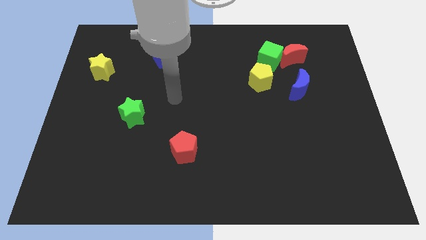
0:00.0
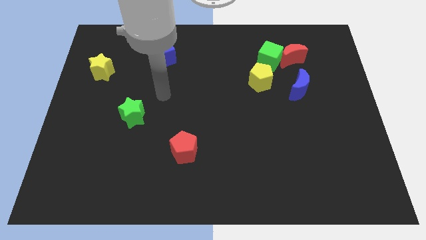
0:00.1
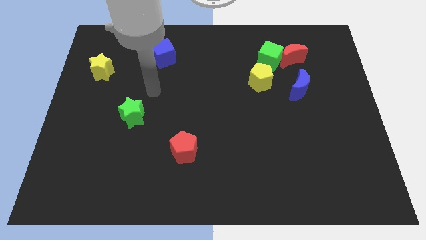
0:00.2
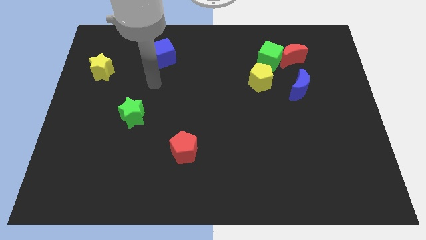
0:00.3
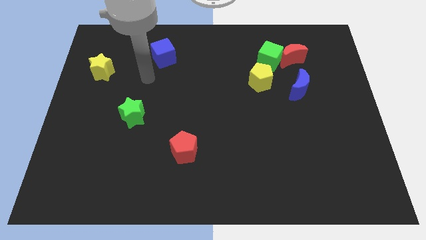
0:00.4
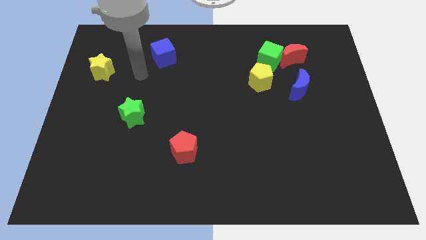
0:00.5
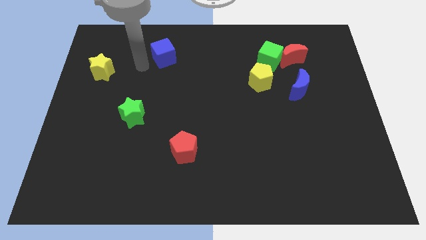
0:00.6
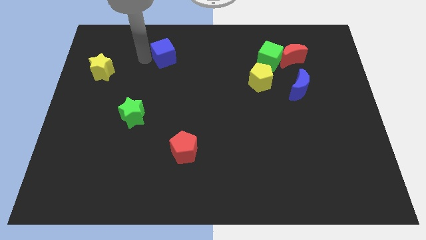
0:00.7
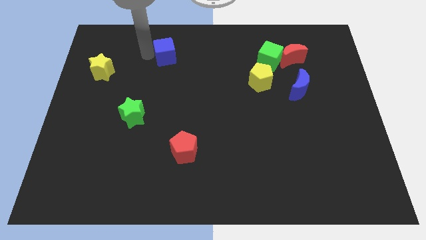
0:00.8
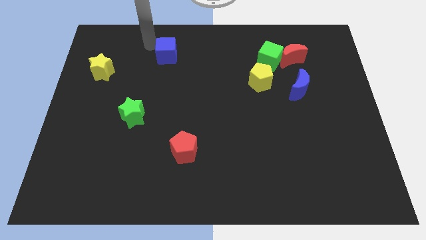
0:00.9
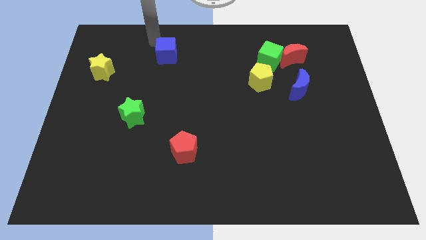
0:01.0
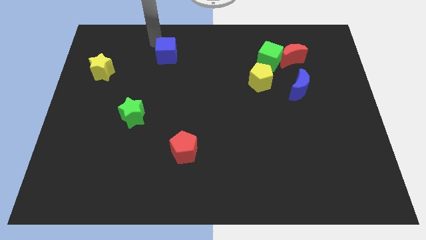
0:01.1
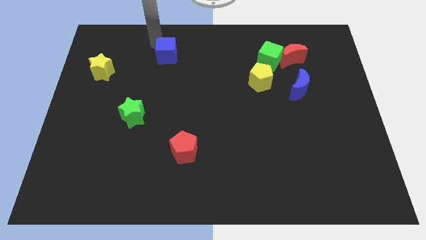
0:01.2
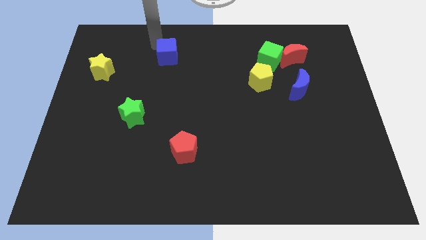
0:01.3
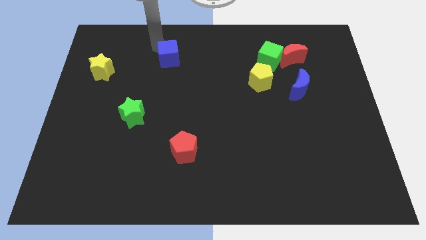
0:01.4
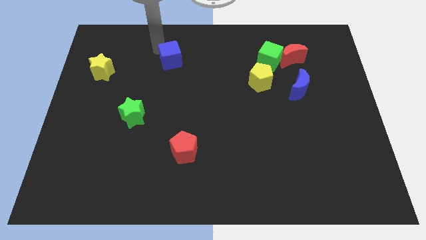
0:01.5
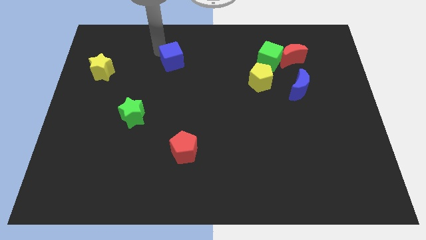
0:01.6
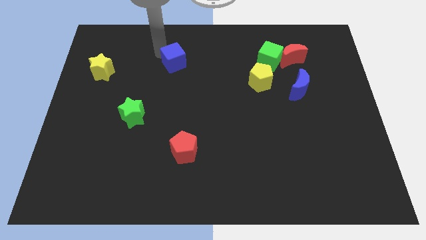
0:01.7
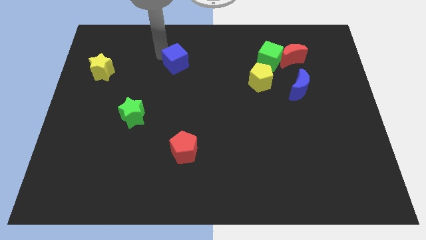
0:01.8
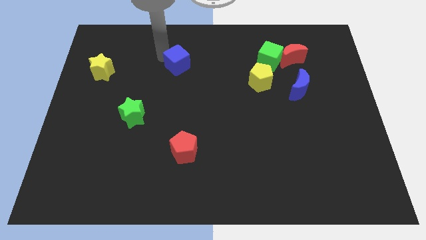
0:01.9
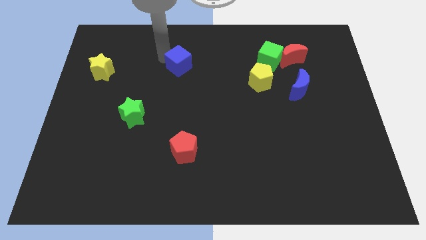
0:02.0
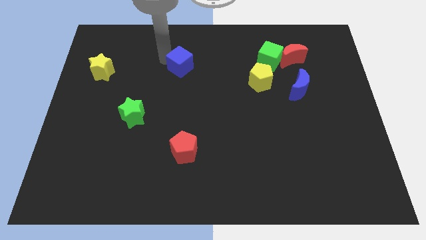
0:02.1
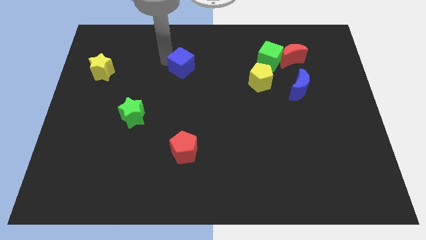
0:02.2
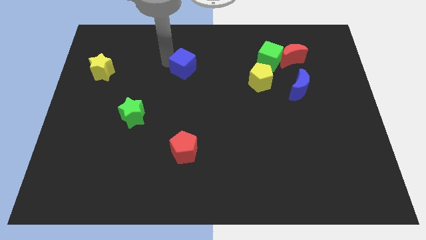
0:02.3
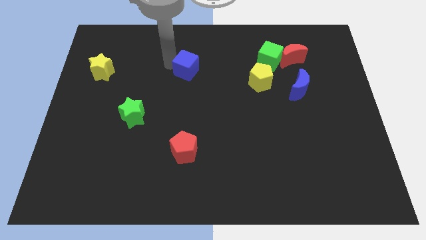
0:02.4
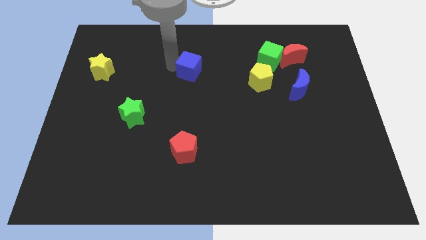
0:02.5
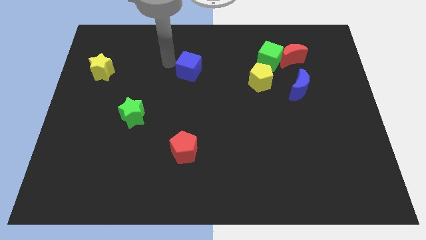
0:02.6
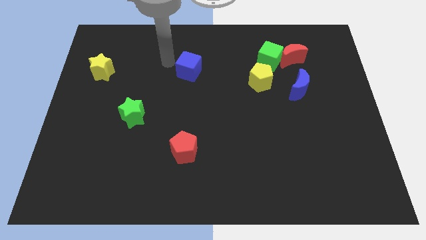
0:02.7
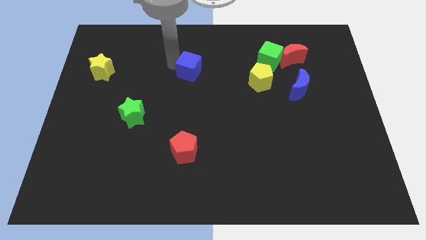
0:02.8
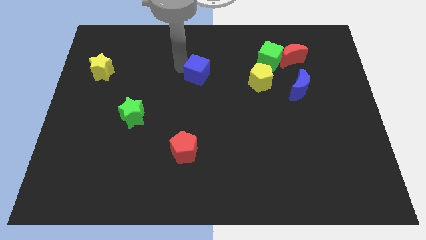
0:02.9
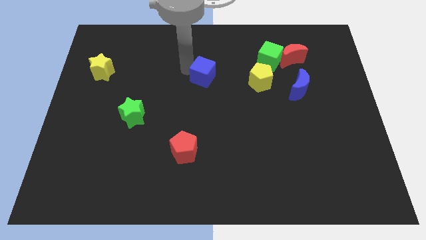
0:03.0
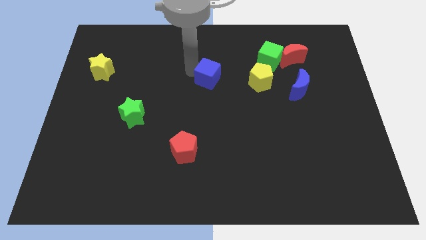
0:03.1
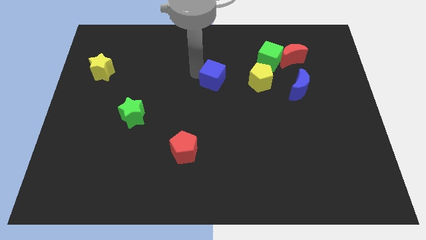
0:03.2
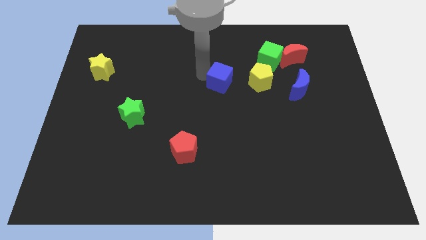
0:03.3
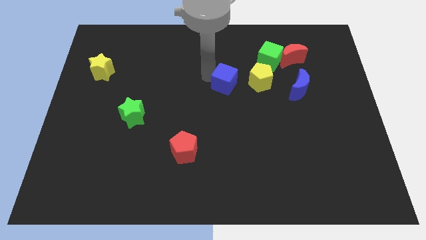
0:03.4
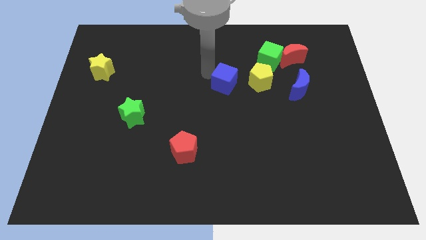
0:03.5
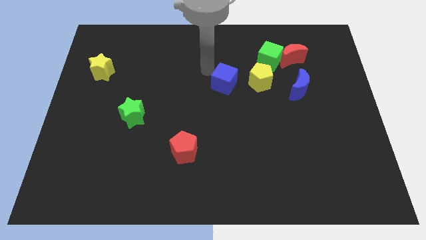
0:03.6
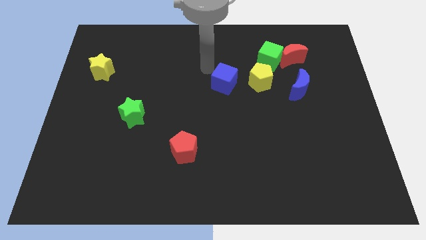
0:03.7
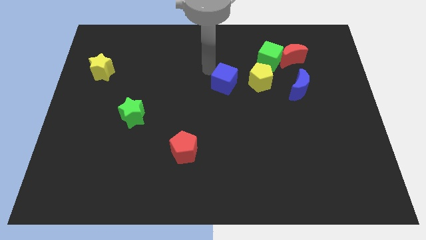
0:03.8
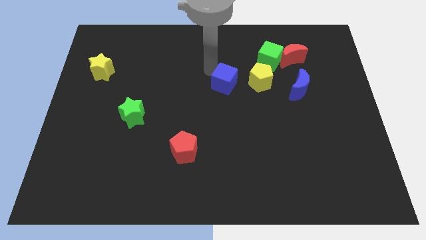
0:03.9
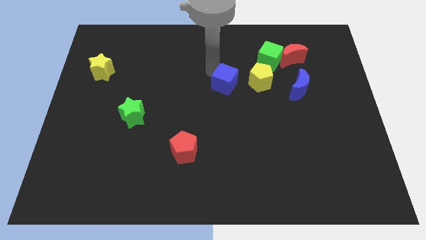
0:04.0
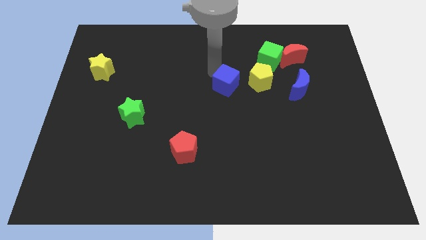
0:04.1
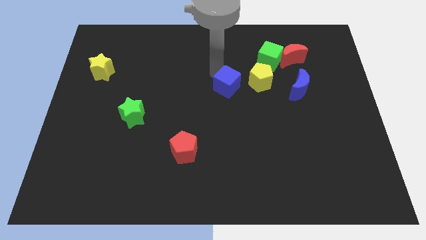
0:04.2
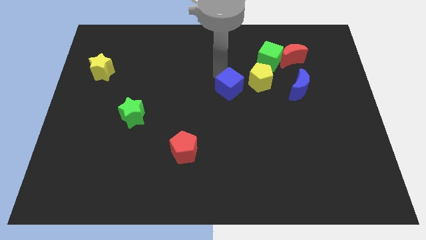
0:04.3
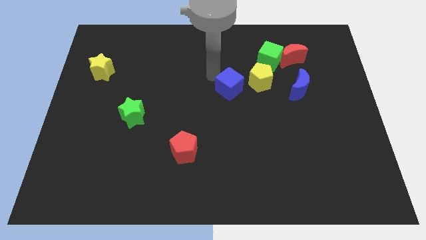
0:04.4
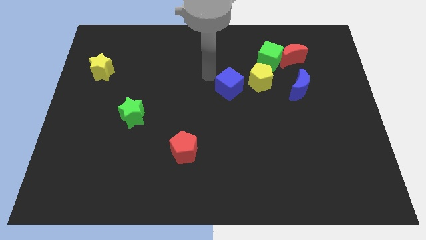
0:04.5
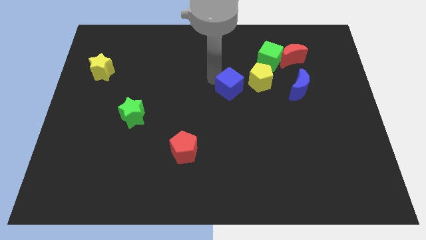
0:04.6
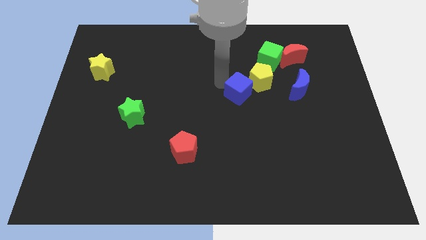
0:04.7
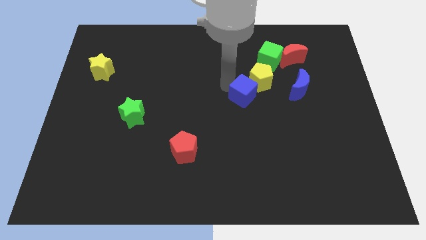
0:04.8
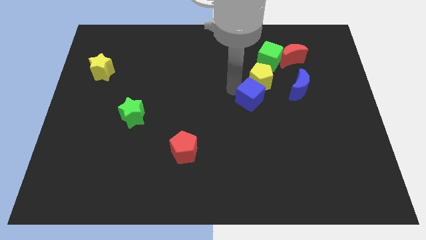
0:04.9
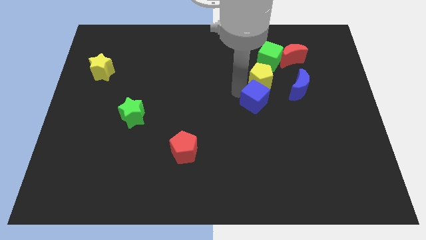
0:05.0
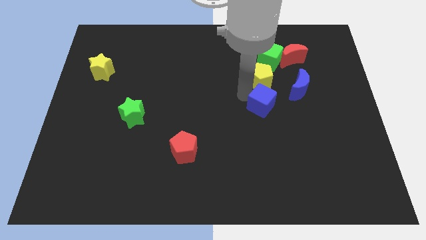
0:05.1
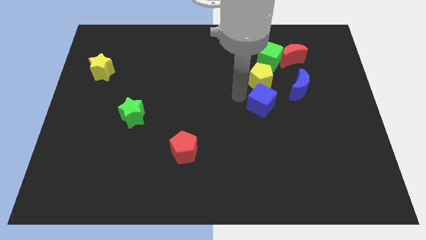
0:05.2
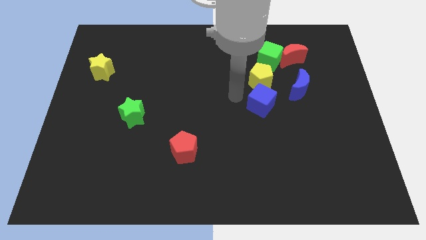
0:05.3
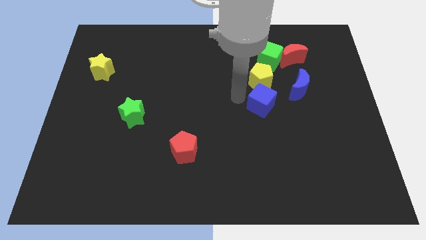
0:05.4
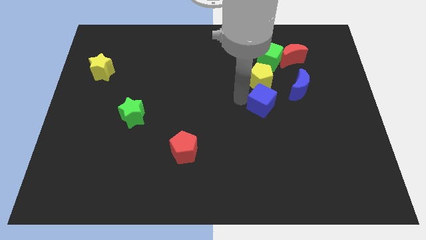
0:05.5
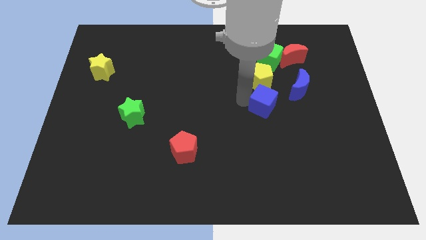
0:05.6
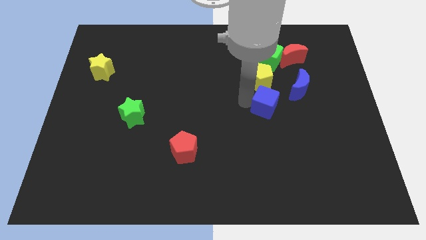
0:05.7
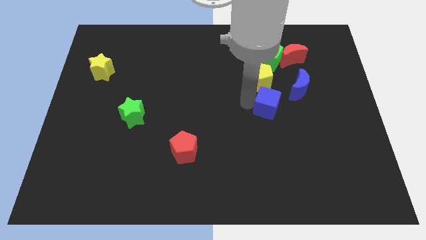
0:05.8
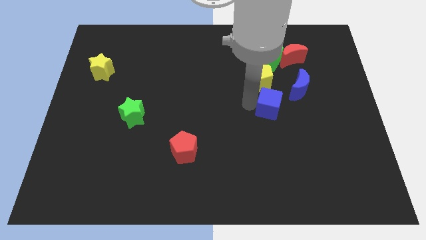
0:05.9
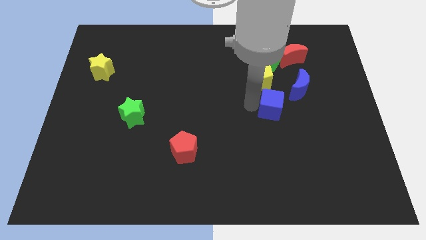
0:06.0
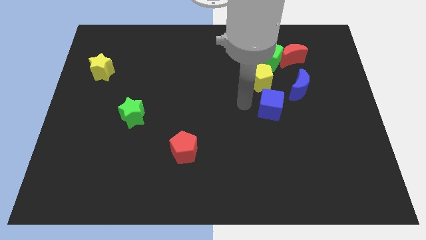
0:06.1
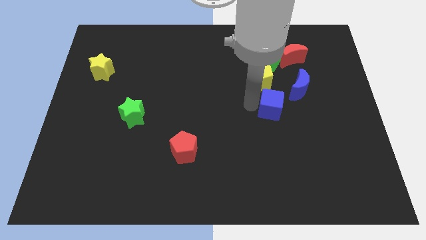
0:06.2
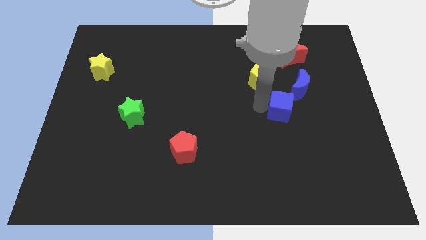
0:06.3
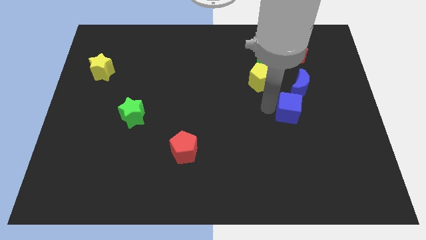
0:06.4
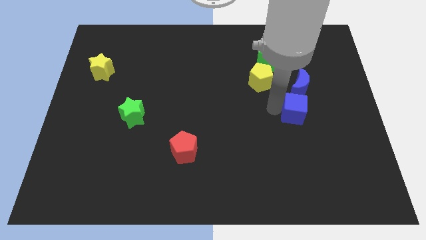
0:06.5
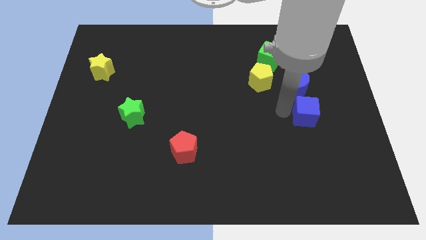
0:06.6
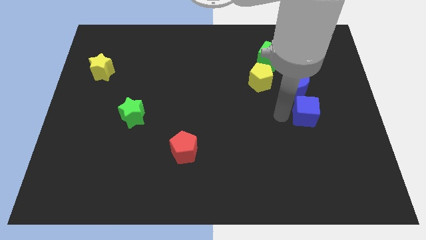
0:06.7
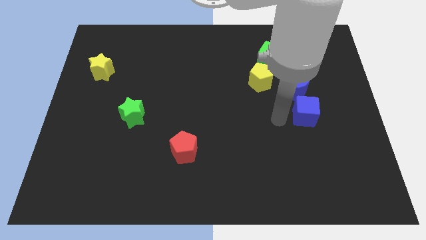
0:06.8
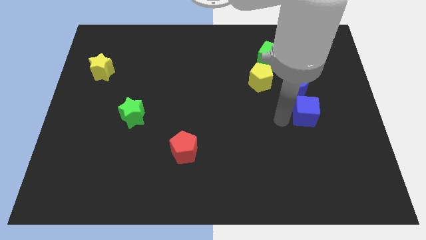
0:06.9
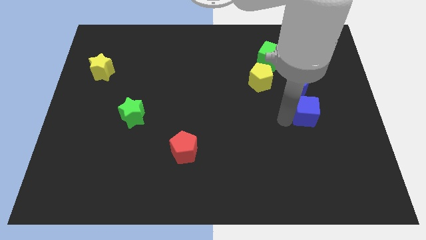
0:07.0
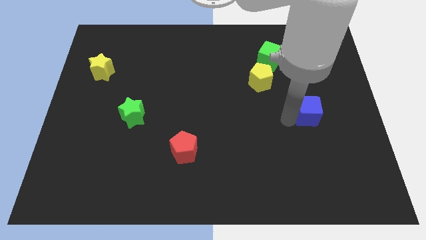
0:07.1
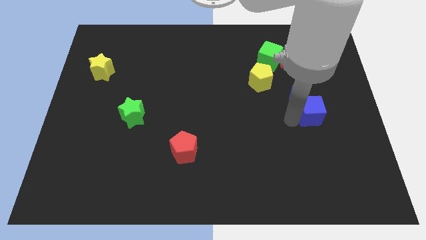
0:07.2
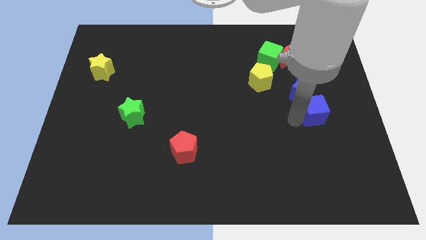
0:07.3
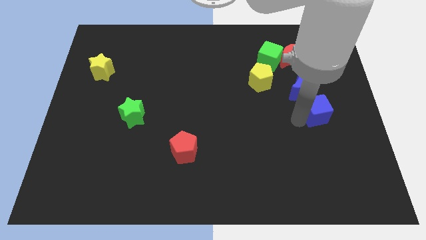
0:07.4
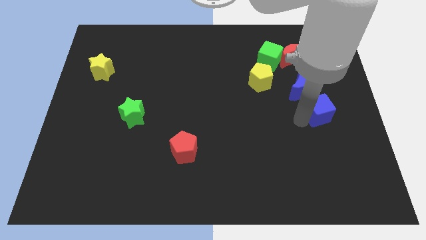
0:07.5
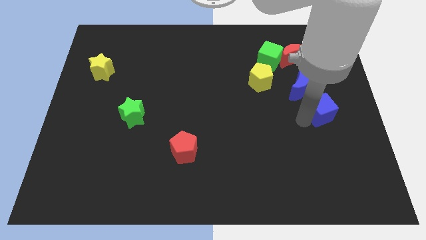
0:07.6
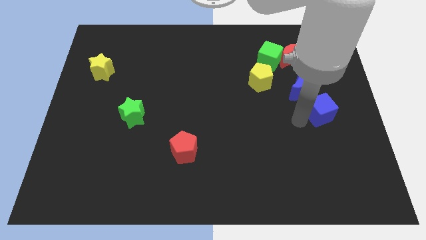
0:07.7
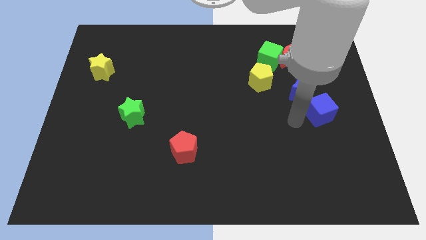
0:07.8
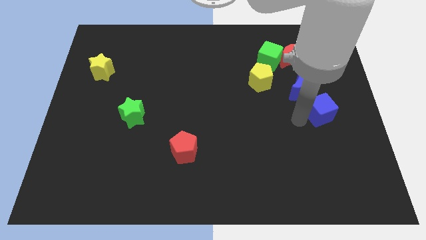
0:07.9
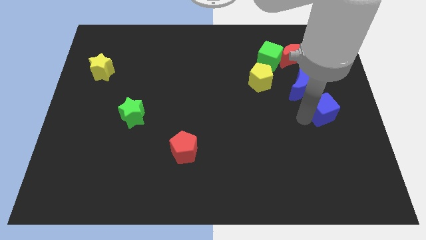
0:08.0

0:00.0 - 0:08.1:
move the blue cube to the center right
